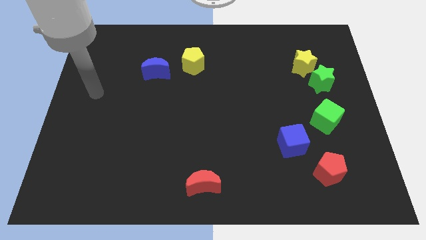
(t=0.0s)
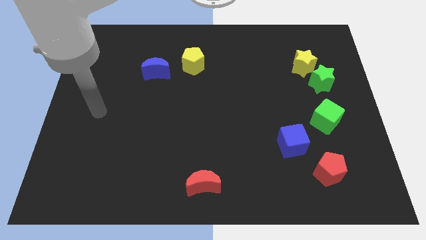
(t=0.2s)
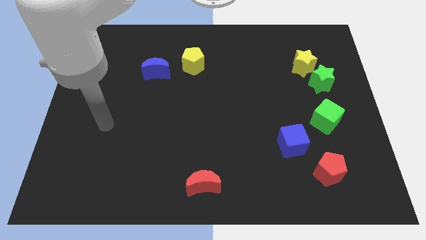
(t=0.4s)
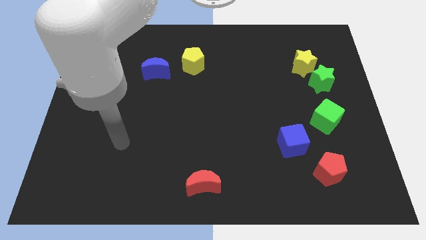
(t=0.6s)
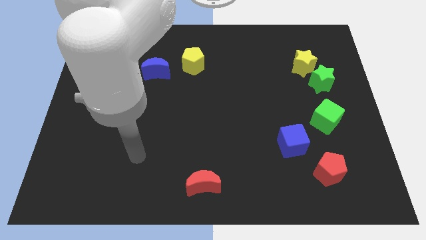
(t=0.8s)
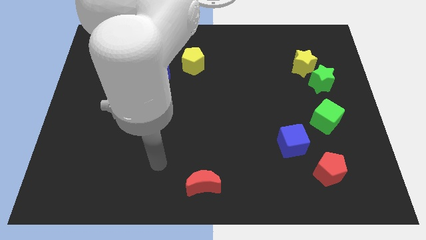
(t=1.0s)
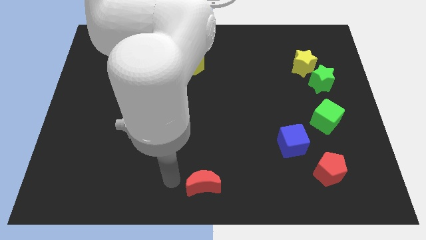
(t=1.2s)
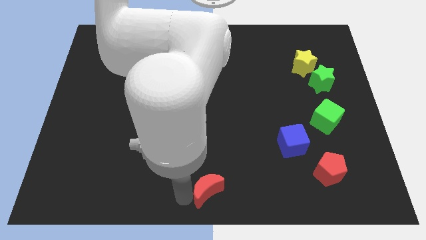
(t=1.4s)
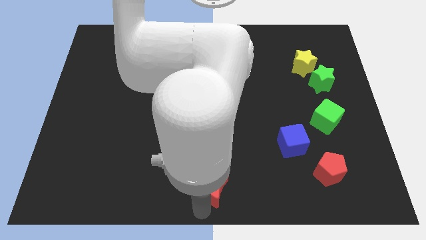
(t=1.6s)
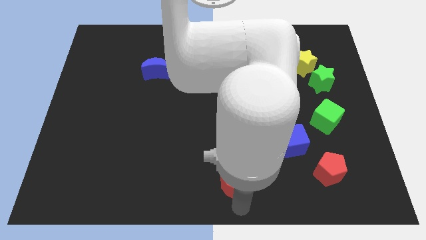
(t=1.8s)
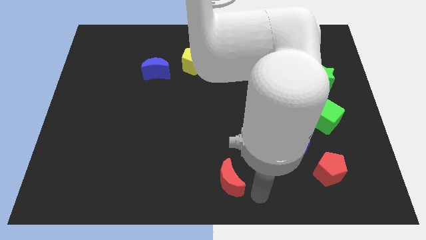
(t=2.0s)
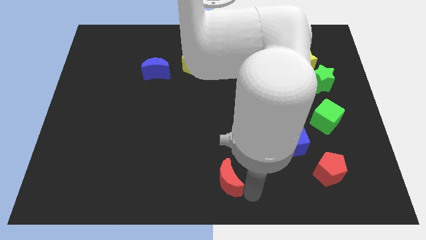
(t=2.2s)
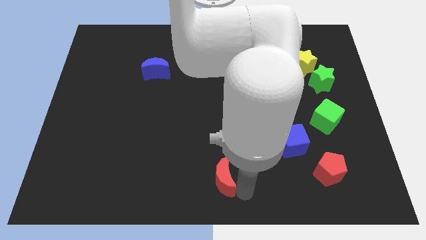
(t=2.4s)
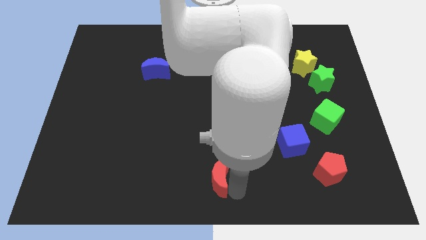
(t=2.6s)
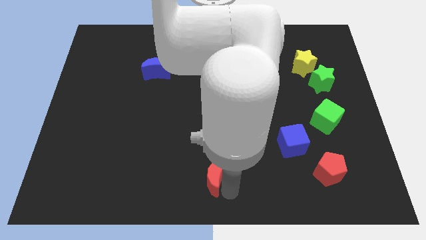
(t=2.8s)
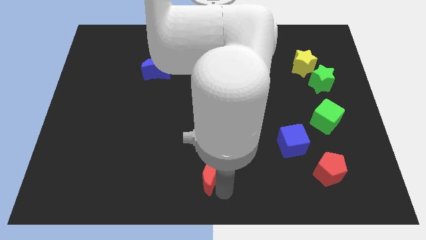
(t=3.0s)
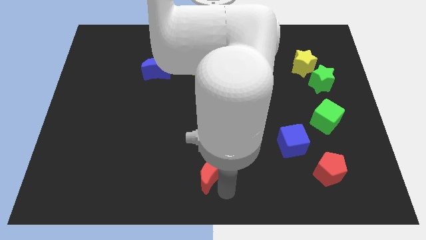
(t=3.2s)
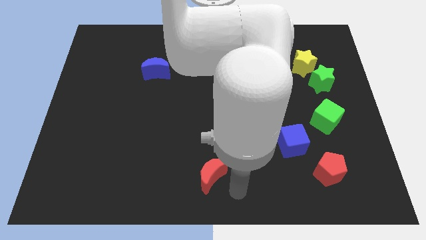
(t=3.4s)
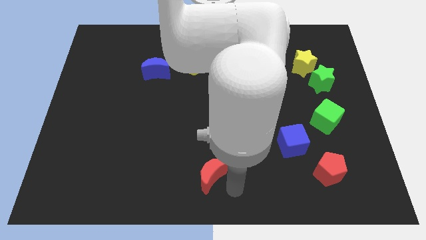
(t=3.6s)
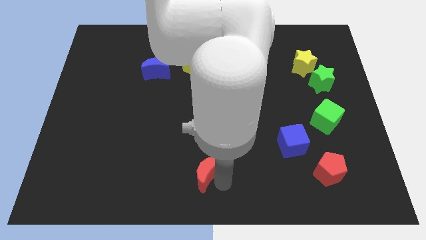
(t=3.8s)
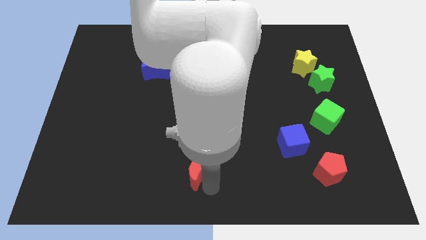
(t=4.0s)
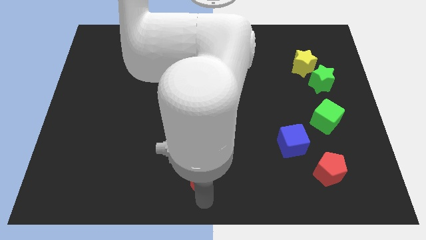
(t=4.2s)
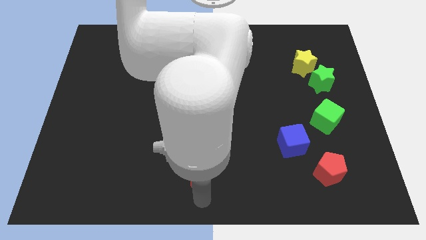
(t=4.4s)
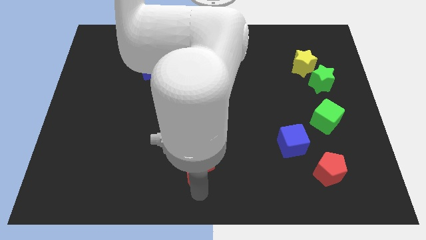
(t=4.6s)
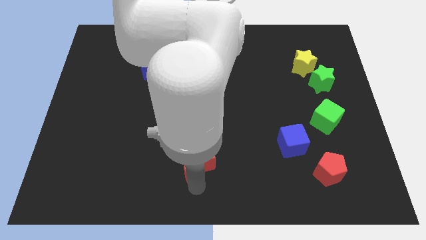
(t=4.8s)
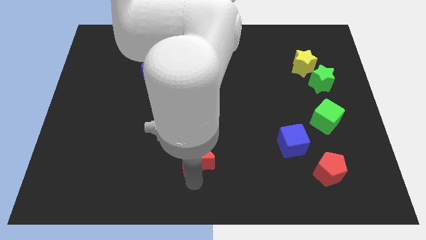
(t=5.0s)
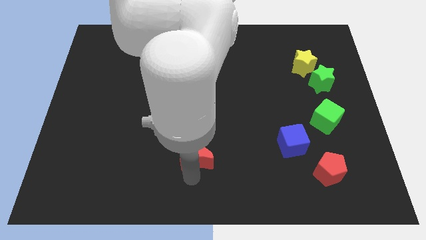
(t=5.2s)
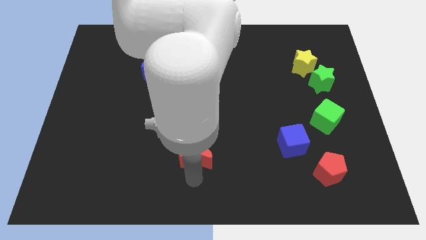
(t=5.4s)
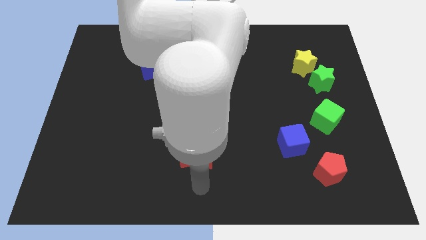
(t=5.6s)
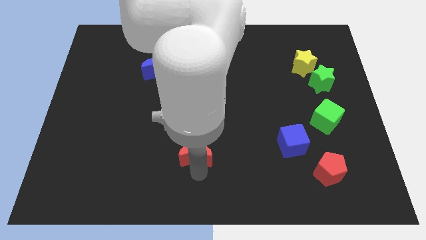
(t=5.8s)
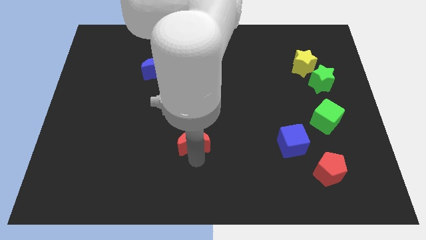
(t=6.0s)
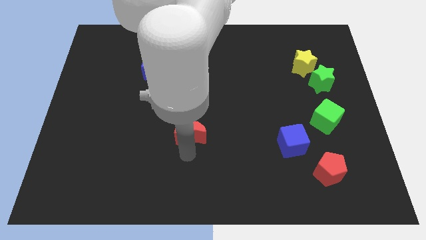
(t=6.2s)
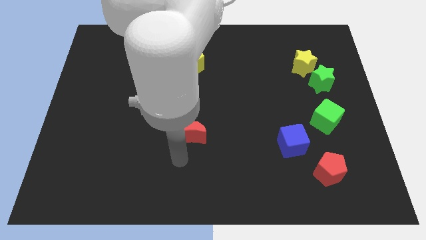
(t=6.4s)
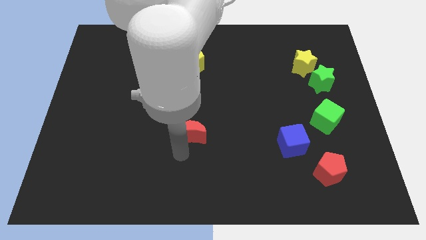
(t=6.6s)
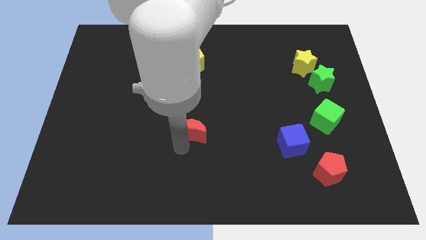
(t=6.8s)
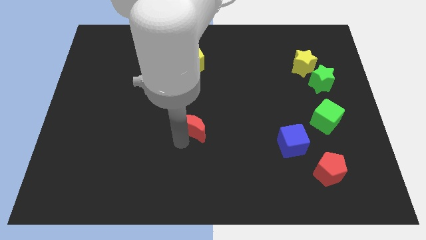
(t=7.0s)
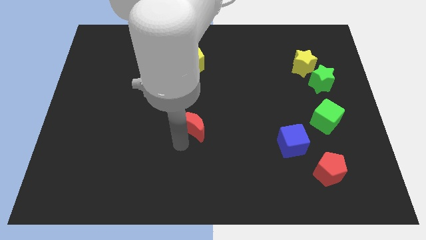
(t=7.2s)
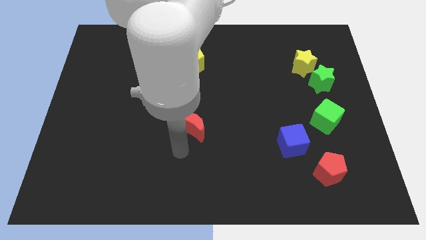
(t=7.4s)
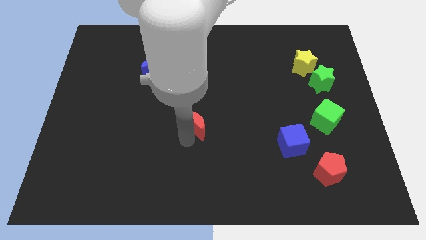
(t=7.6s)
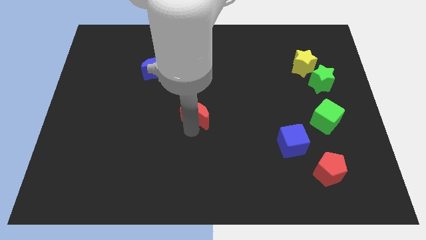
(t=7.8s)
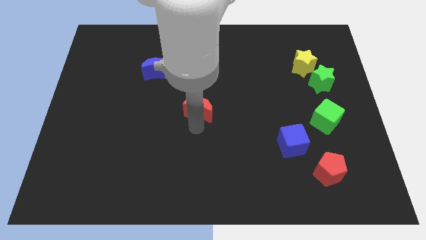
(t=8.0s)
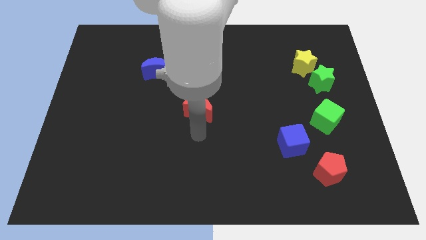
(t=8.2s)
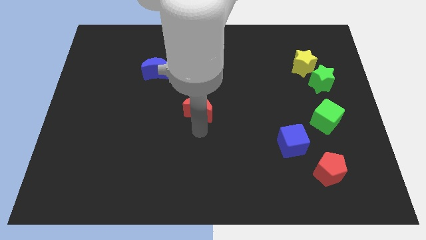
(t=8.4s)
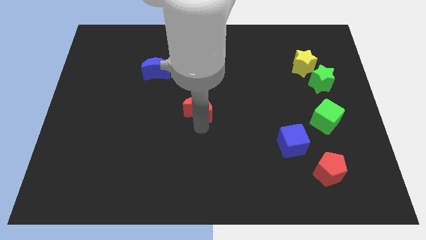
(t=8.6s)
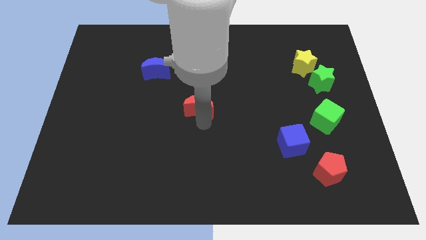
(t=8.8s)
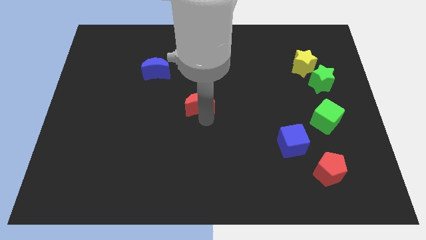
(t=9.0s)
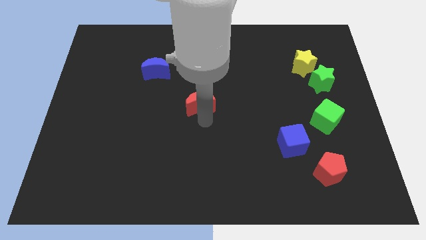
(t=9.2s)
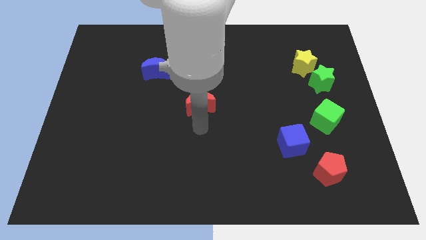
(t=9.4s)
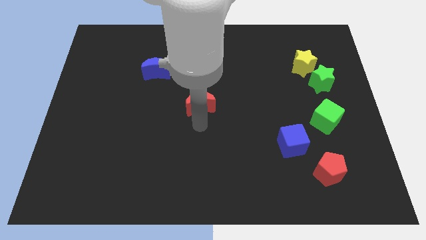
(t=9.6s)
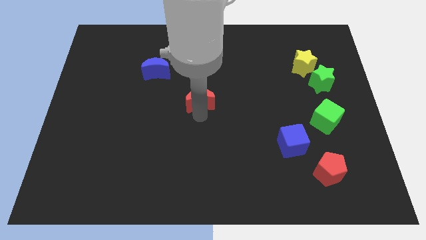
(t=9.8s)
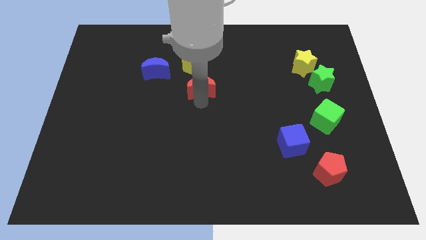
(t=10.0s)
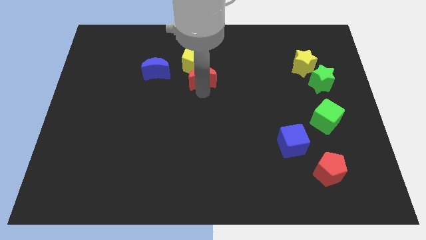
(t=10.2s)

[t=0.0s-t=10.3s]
move the red moon towards the yellow pentagon

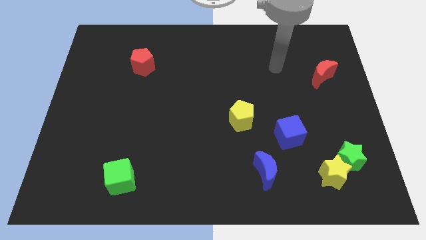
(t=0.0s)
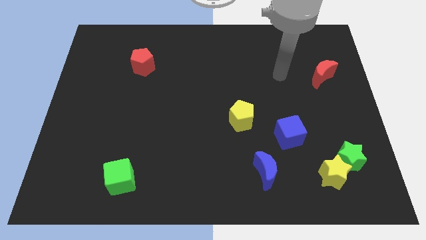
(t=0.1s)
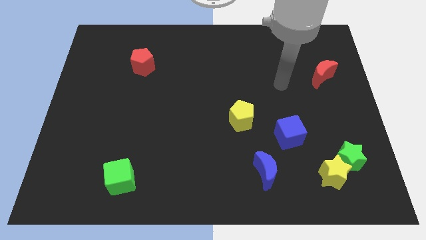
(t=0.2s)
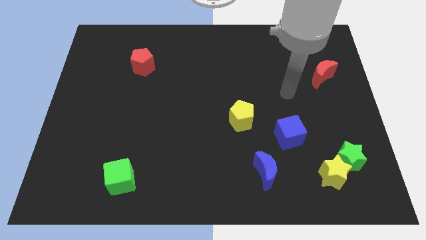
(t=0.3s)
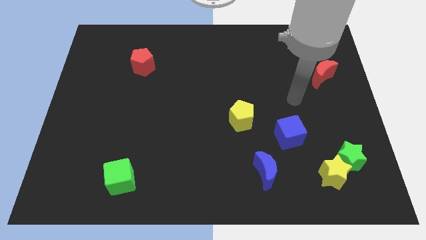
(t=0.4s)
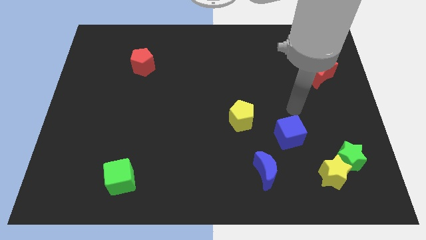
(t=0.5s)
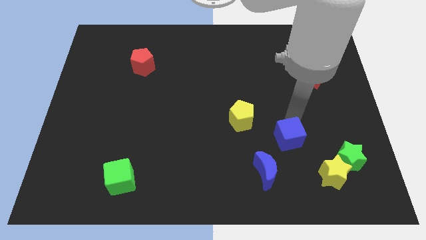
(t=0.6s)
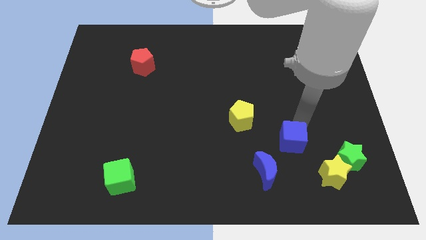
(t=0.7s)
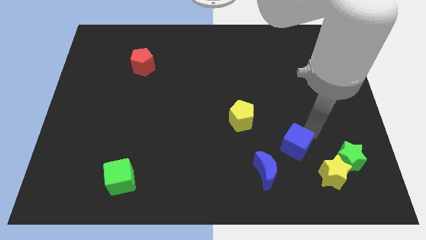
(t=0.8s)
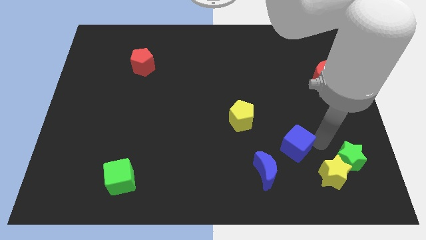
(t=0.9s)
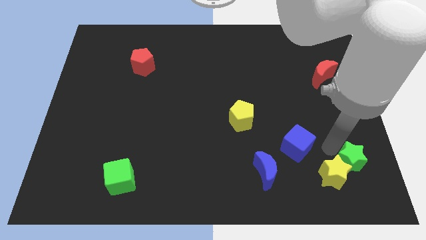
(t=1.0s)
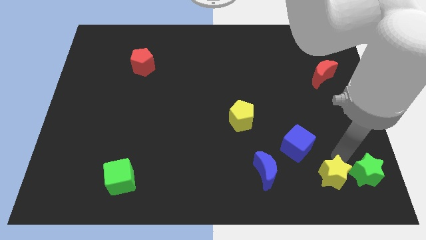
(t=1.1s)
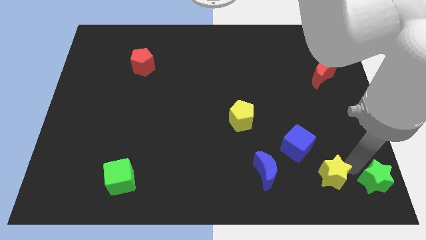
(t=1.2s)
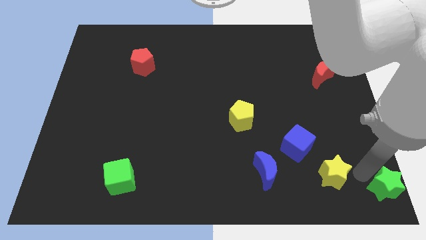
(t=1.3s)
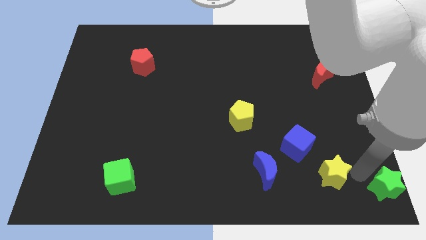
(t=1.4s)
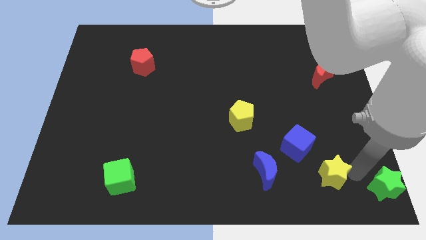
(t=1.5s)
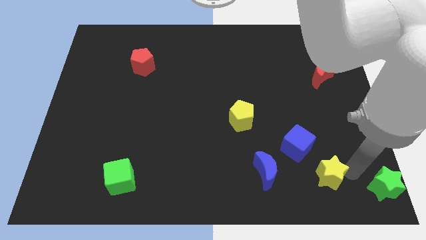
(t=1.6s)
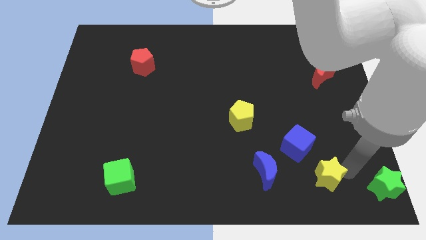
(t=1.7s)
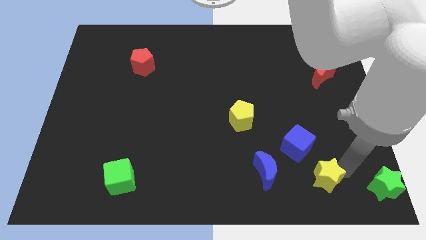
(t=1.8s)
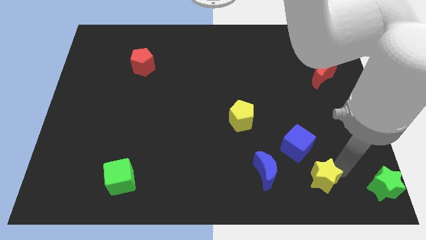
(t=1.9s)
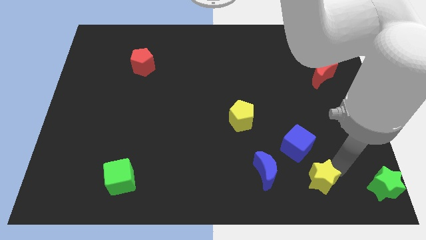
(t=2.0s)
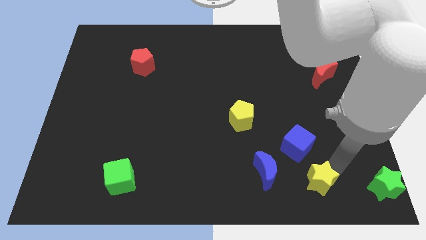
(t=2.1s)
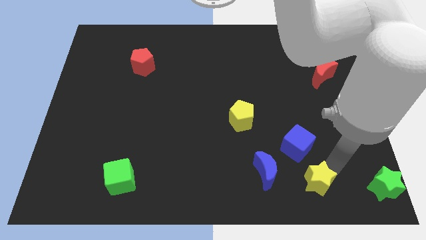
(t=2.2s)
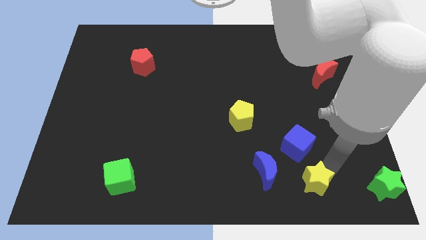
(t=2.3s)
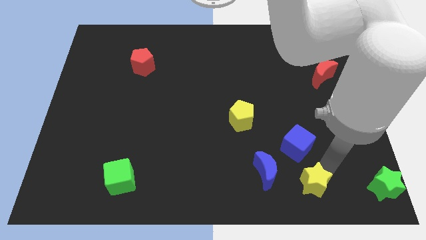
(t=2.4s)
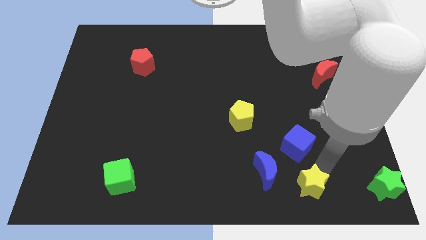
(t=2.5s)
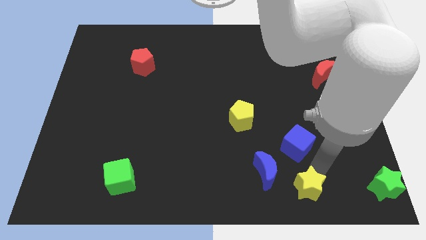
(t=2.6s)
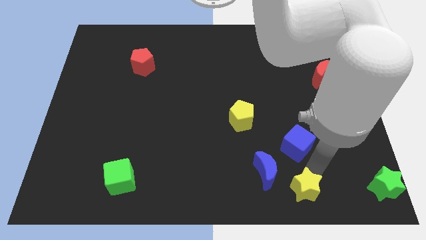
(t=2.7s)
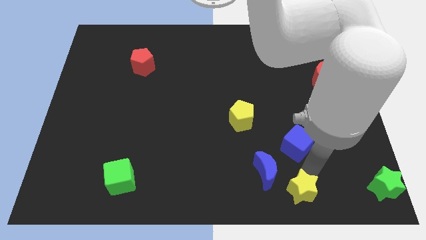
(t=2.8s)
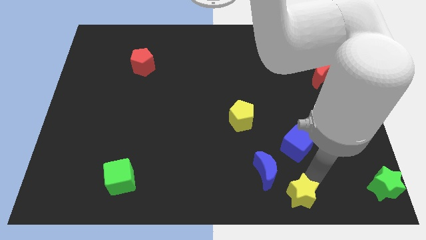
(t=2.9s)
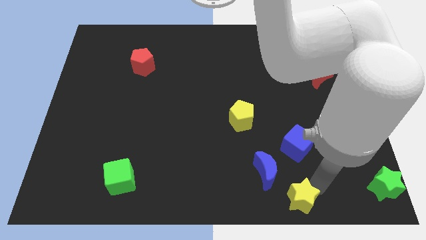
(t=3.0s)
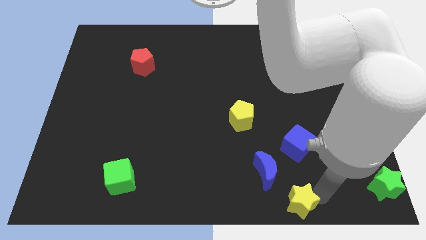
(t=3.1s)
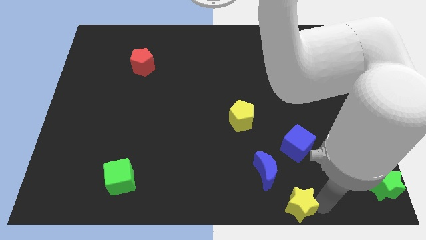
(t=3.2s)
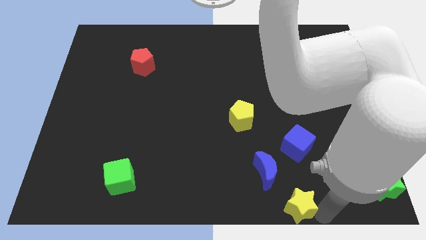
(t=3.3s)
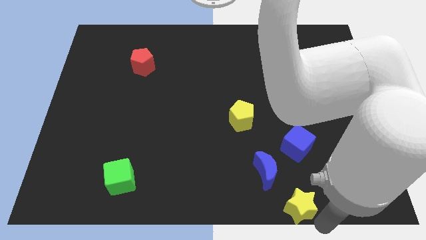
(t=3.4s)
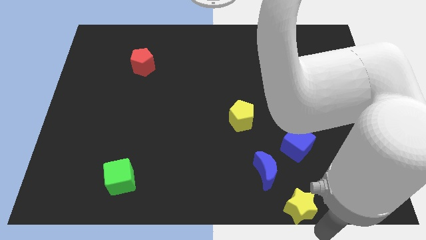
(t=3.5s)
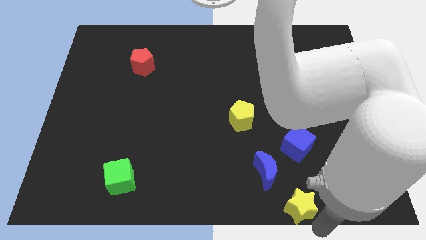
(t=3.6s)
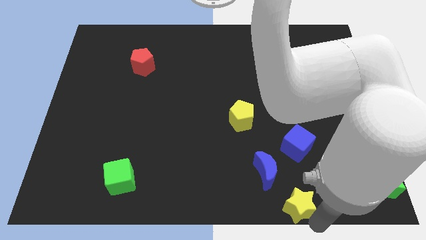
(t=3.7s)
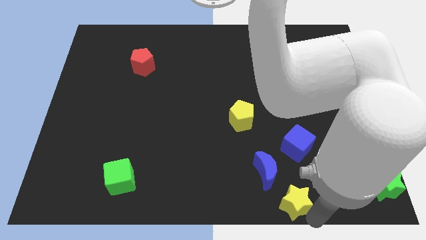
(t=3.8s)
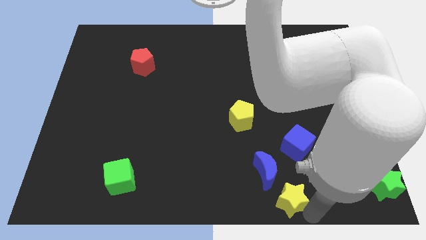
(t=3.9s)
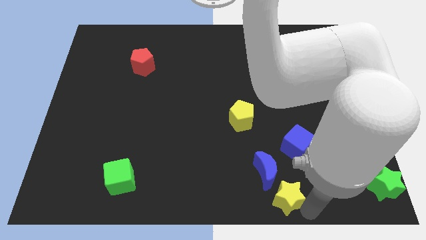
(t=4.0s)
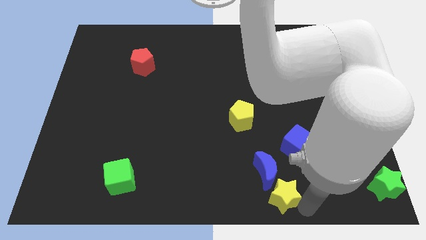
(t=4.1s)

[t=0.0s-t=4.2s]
slide the yellow star next to the blue moon
